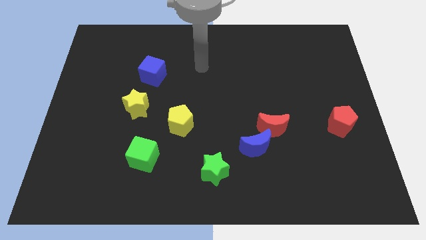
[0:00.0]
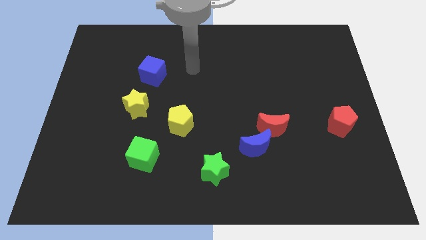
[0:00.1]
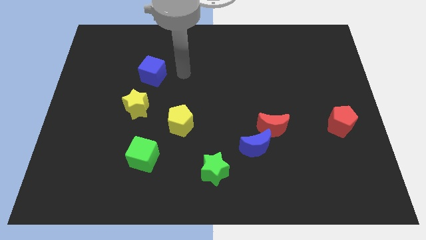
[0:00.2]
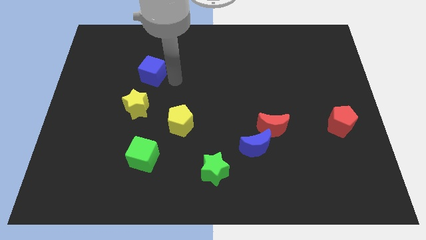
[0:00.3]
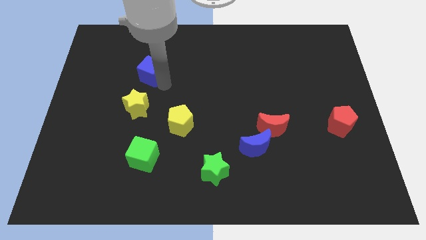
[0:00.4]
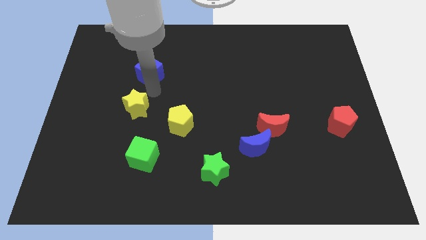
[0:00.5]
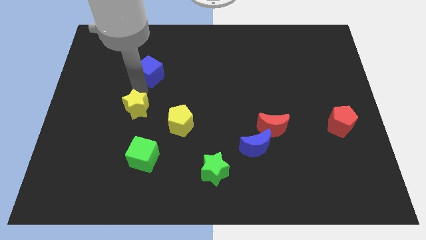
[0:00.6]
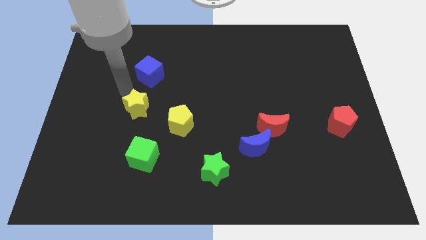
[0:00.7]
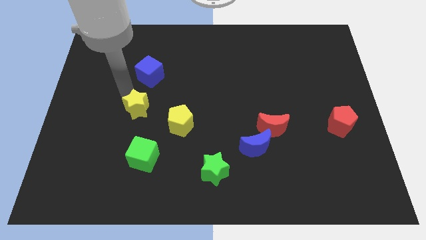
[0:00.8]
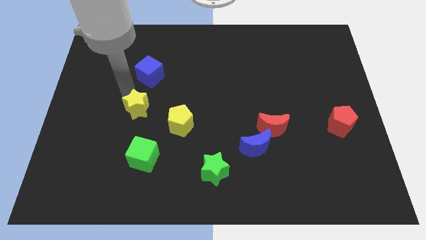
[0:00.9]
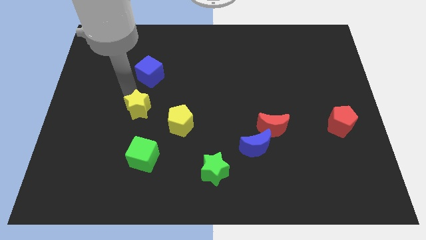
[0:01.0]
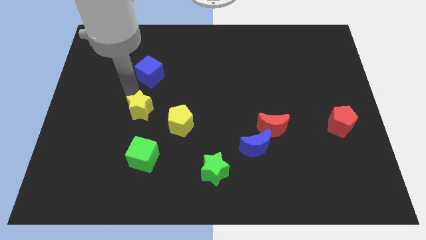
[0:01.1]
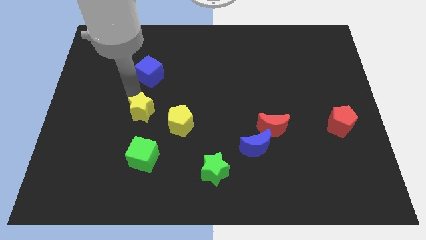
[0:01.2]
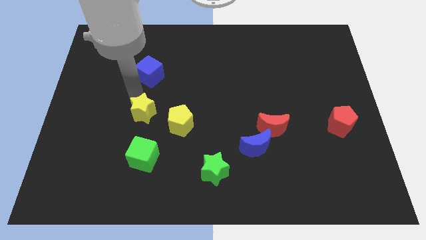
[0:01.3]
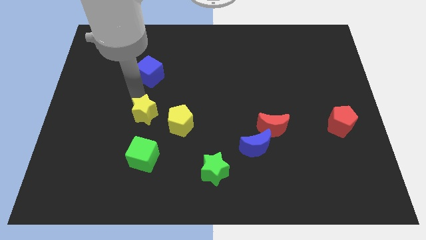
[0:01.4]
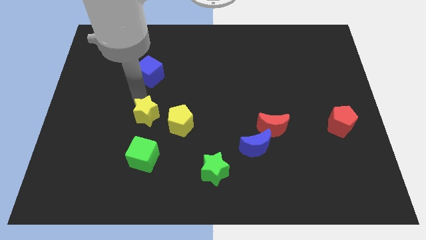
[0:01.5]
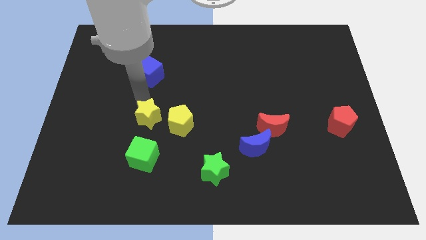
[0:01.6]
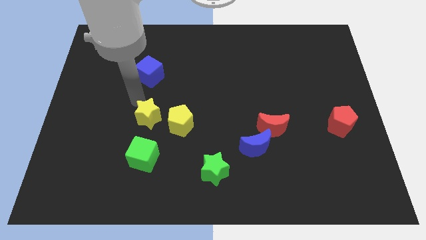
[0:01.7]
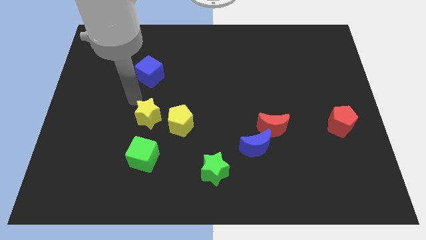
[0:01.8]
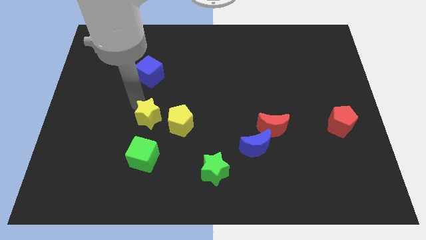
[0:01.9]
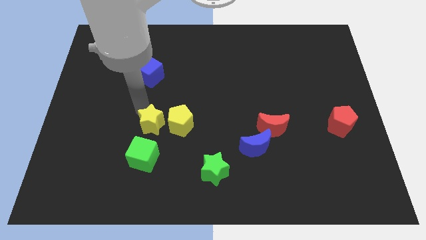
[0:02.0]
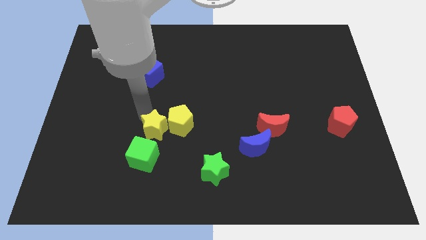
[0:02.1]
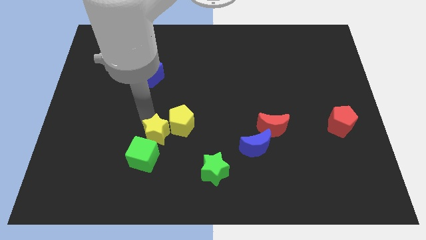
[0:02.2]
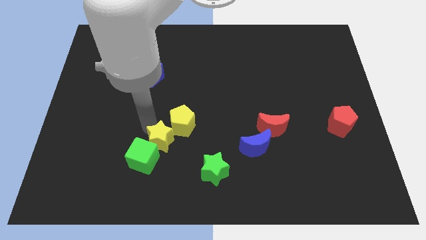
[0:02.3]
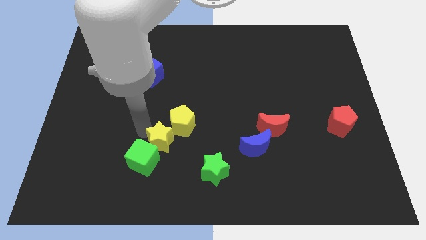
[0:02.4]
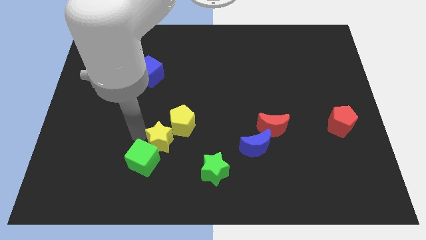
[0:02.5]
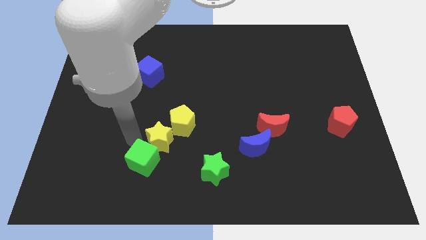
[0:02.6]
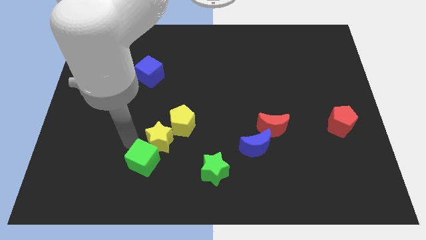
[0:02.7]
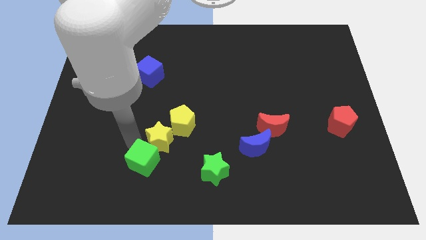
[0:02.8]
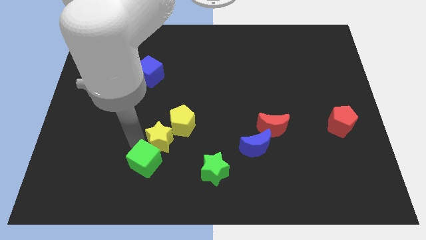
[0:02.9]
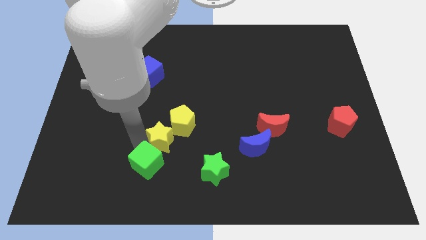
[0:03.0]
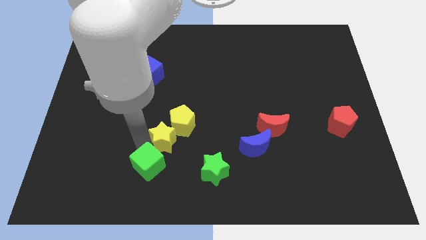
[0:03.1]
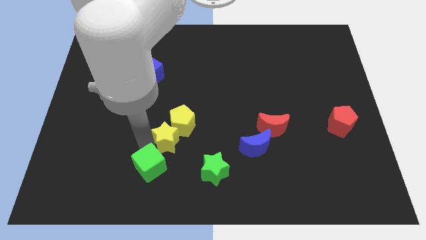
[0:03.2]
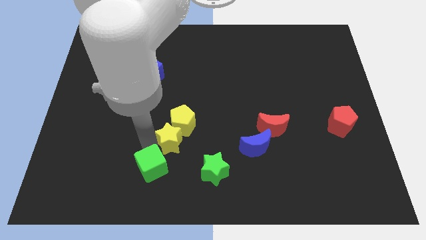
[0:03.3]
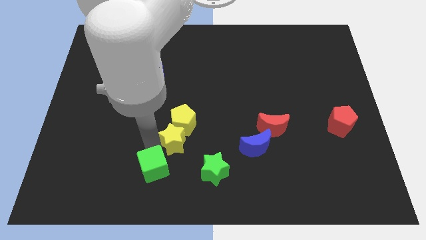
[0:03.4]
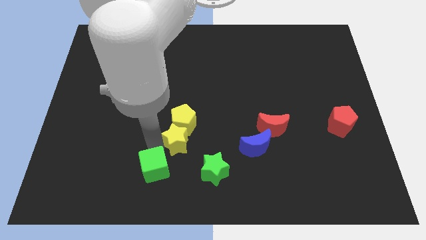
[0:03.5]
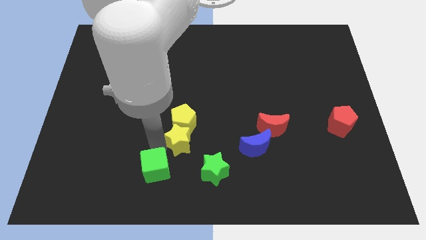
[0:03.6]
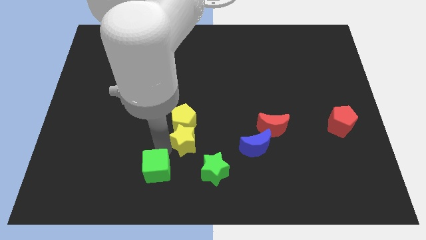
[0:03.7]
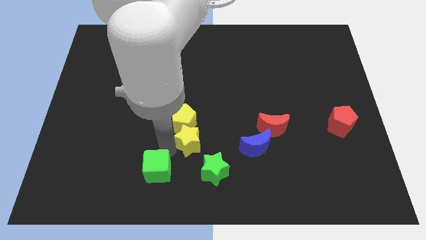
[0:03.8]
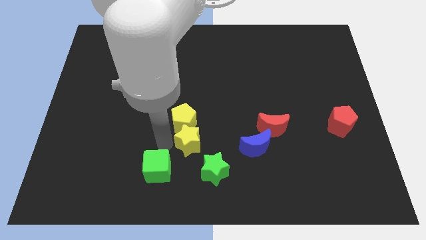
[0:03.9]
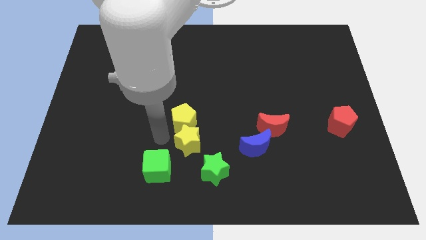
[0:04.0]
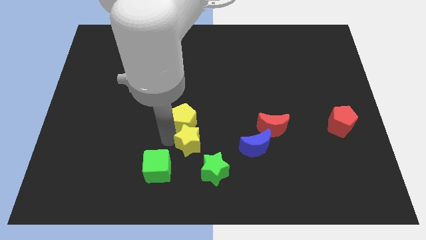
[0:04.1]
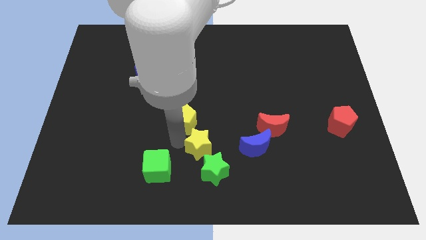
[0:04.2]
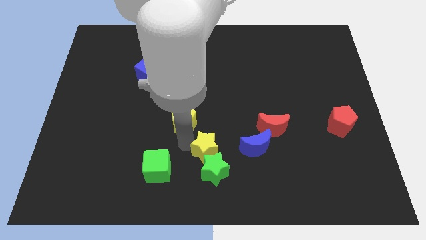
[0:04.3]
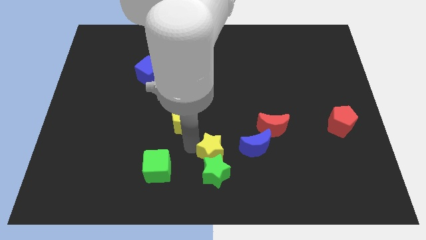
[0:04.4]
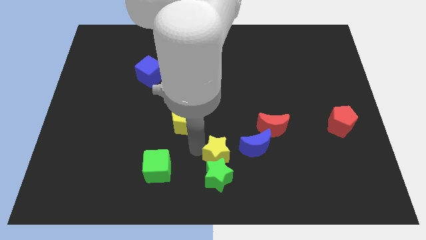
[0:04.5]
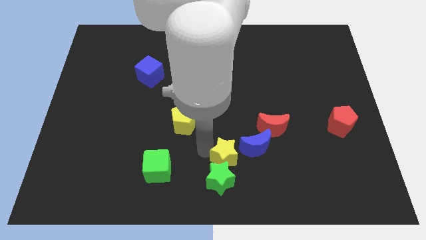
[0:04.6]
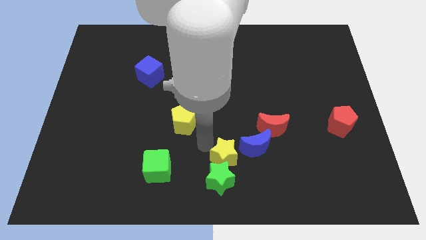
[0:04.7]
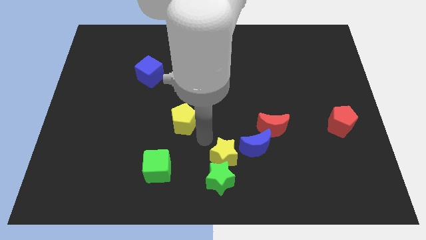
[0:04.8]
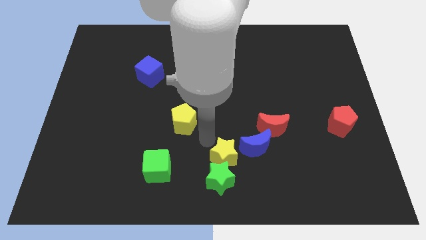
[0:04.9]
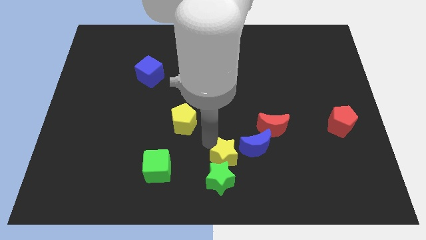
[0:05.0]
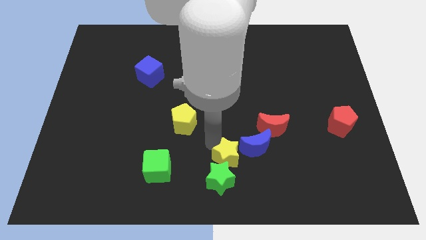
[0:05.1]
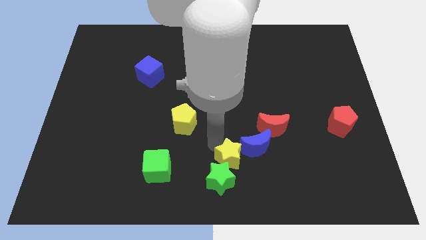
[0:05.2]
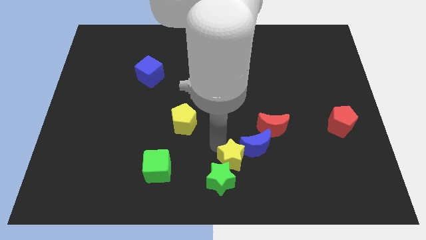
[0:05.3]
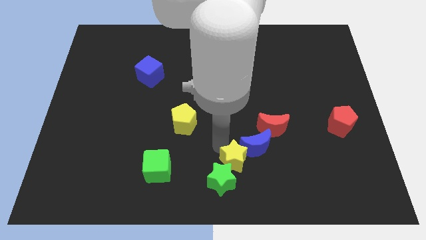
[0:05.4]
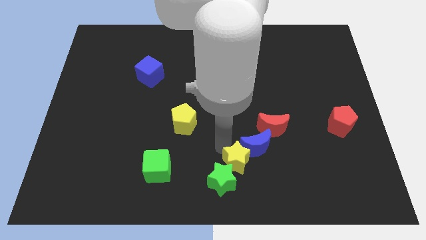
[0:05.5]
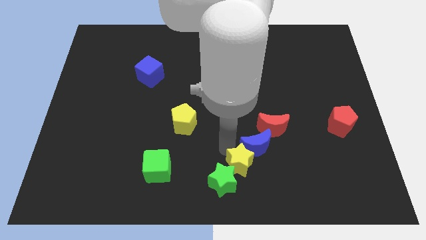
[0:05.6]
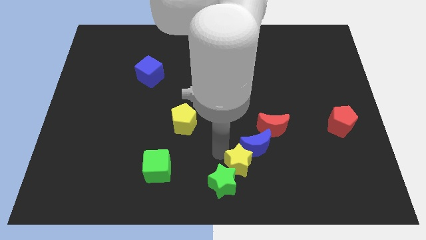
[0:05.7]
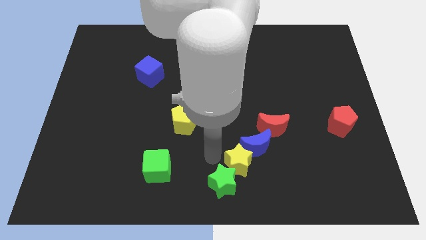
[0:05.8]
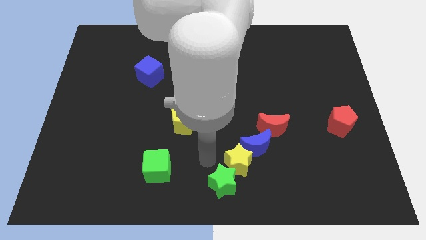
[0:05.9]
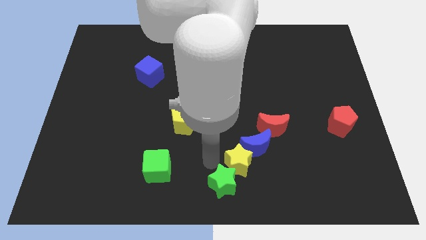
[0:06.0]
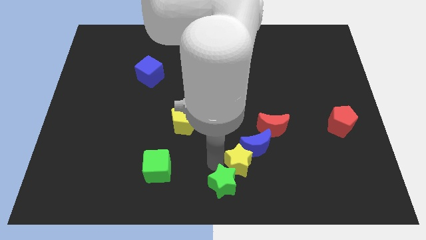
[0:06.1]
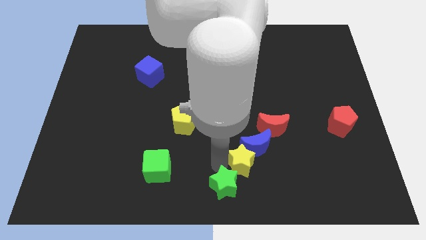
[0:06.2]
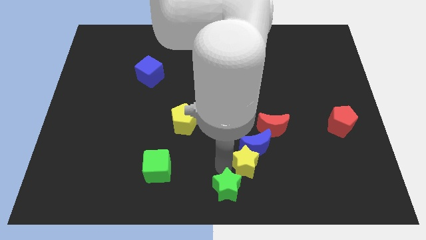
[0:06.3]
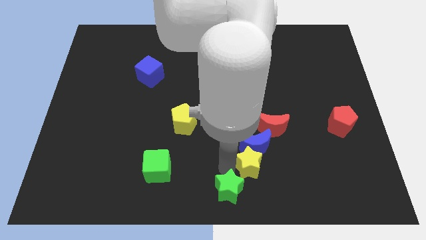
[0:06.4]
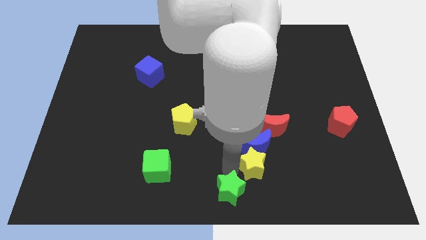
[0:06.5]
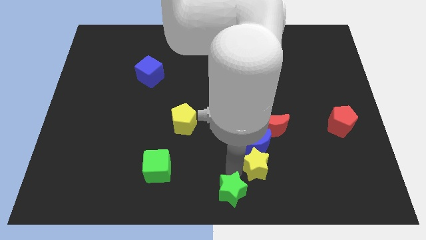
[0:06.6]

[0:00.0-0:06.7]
push the yellow star to the bottom of the red moon

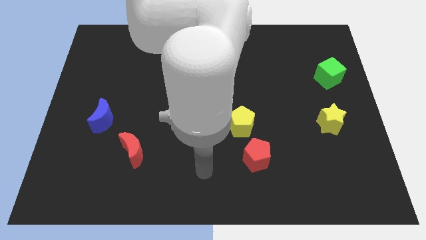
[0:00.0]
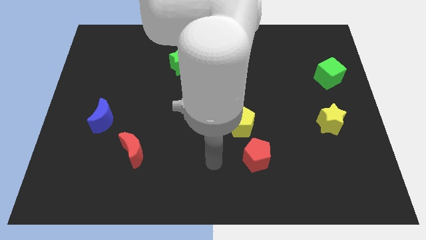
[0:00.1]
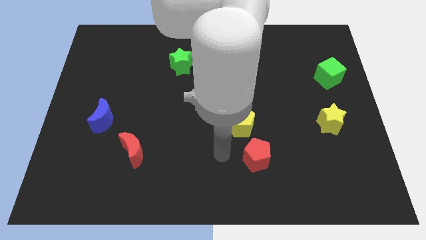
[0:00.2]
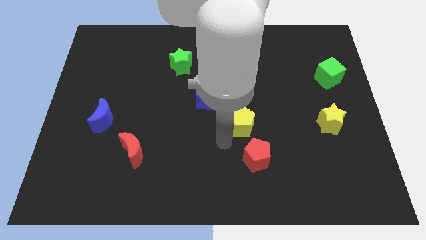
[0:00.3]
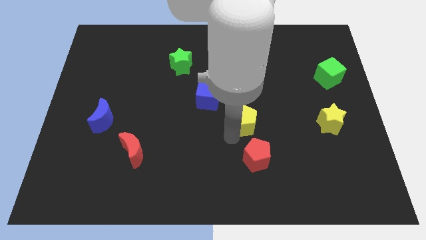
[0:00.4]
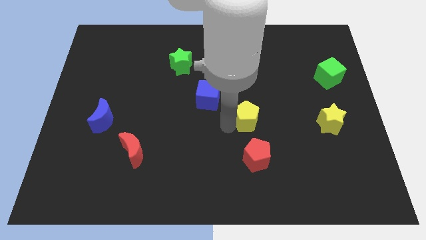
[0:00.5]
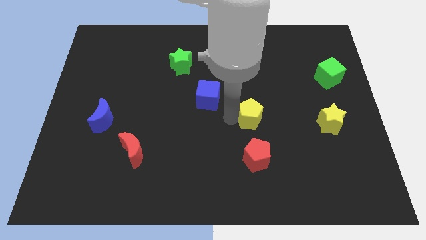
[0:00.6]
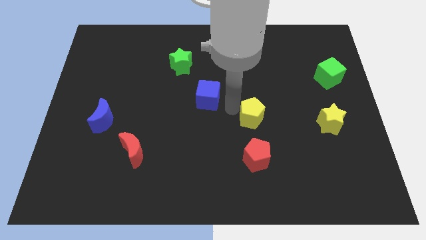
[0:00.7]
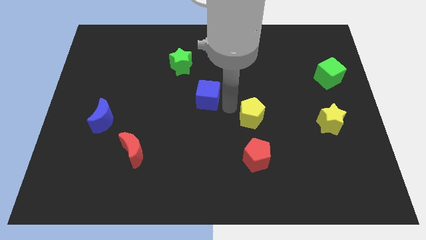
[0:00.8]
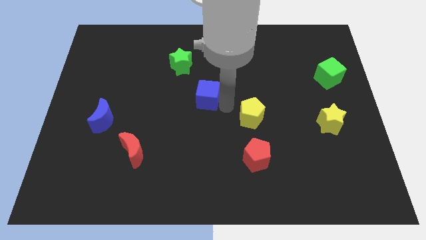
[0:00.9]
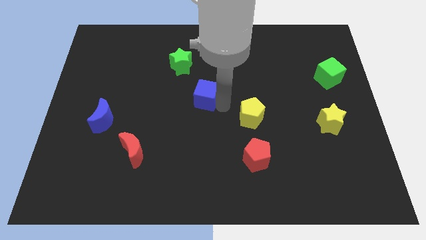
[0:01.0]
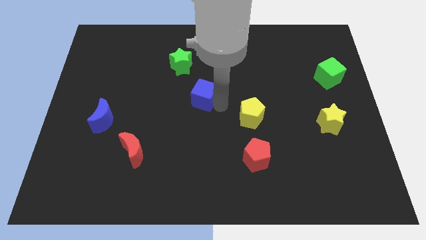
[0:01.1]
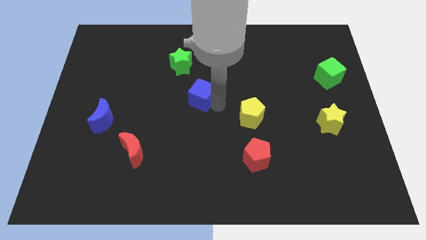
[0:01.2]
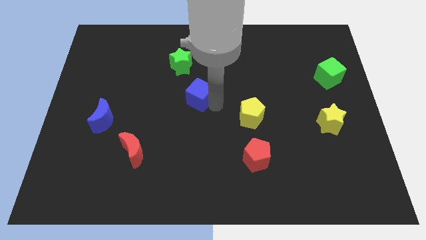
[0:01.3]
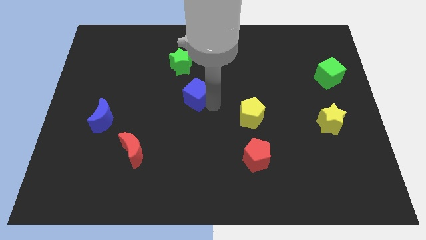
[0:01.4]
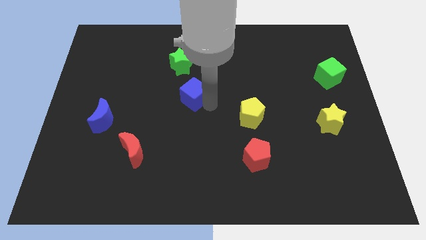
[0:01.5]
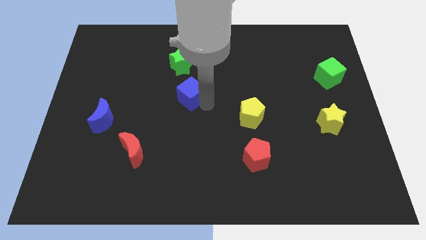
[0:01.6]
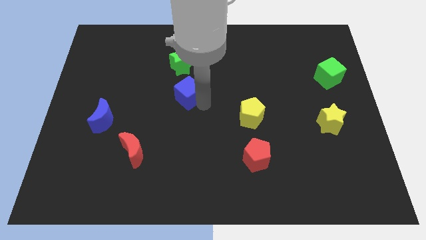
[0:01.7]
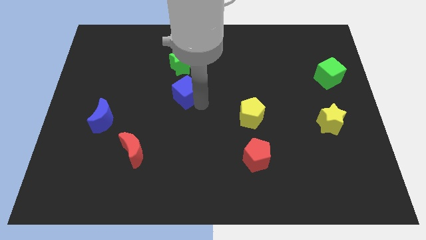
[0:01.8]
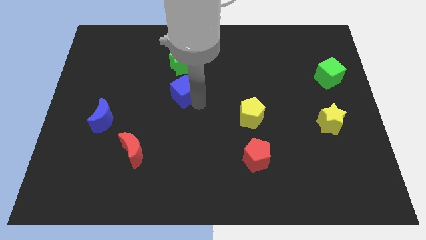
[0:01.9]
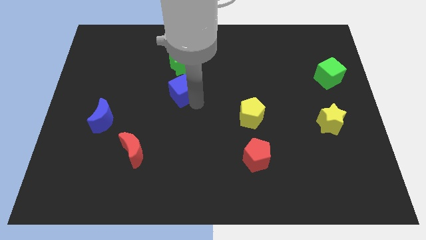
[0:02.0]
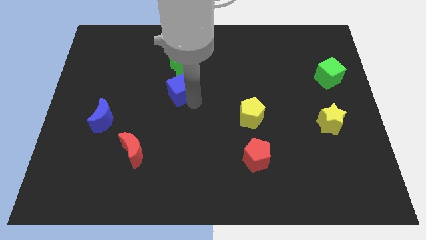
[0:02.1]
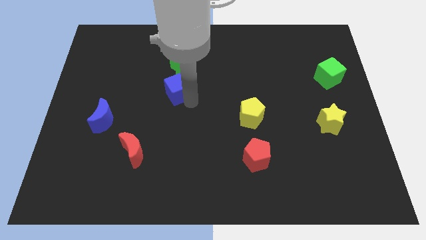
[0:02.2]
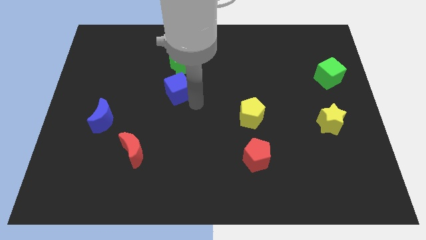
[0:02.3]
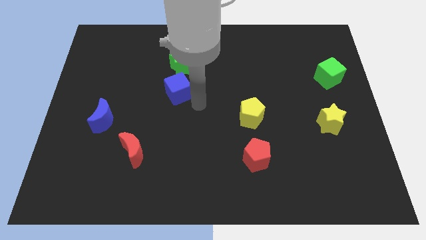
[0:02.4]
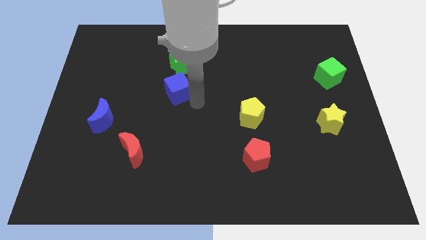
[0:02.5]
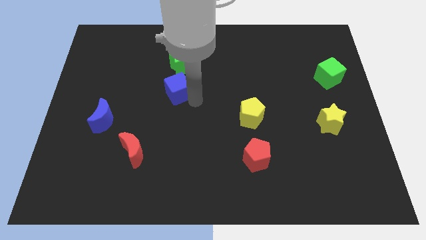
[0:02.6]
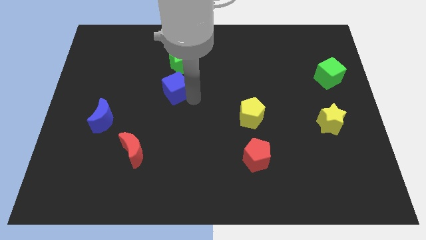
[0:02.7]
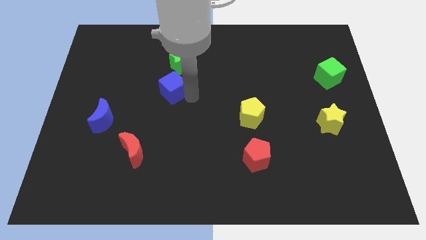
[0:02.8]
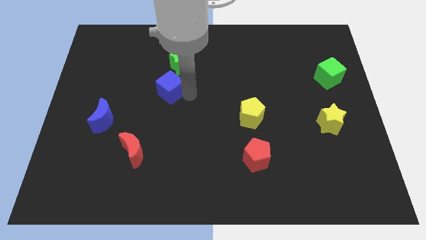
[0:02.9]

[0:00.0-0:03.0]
push the blue cube to the bottom left side of the green star
